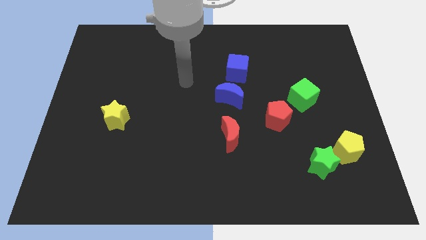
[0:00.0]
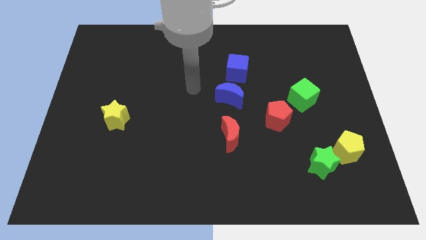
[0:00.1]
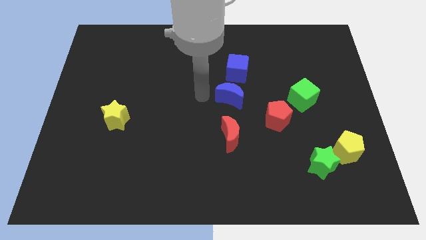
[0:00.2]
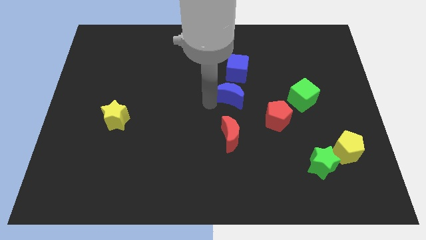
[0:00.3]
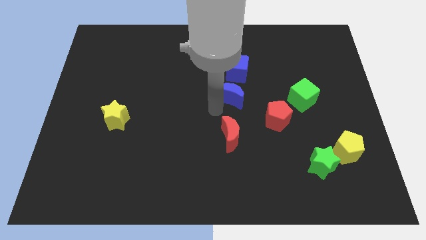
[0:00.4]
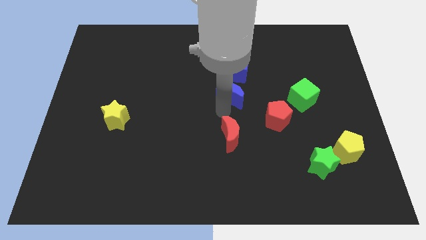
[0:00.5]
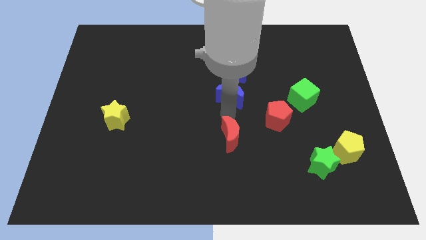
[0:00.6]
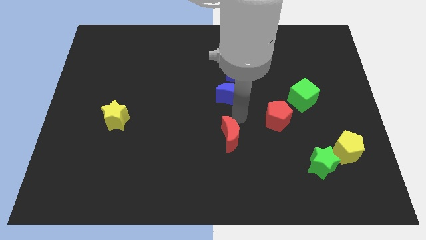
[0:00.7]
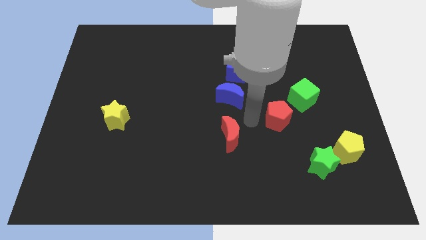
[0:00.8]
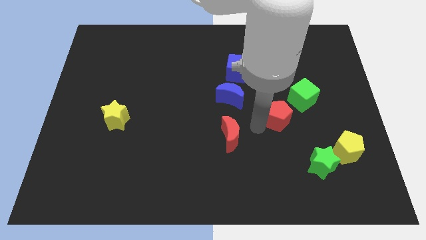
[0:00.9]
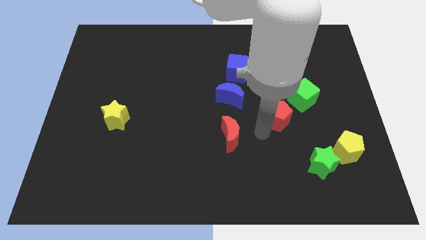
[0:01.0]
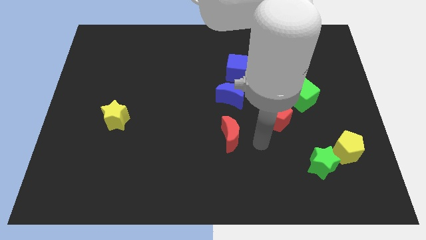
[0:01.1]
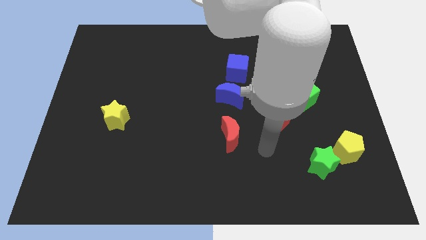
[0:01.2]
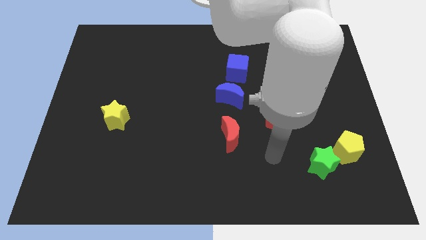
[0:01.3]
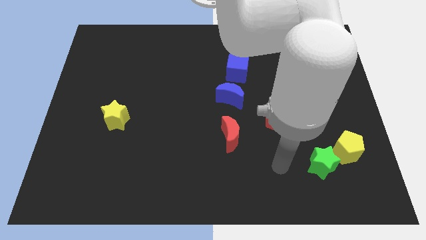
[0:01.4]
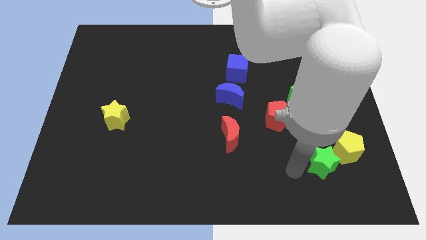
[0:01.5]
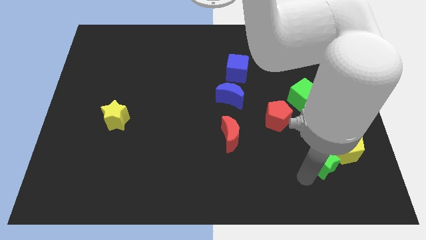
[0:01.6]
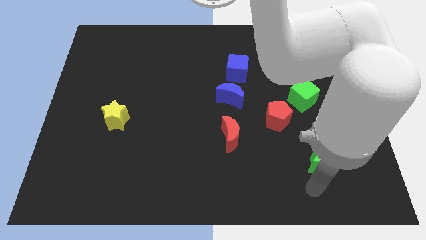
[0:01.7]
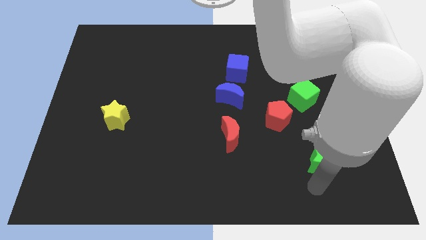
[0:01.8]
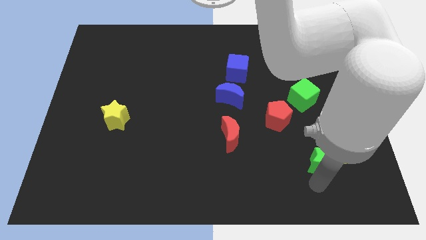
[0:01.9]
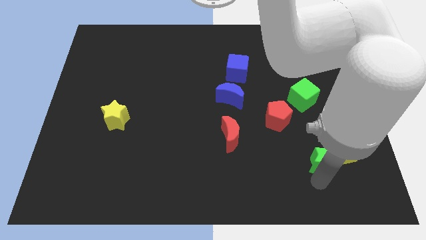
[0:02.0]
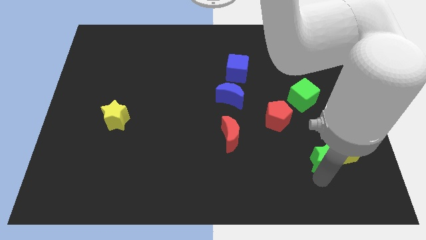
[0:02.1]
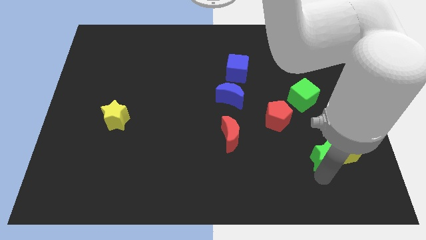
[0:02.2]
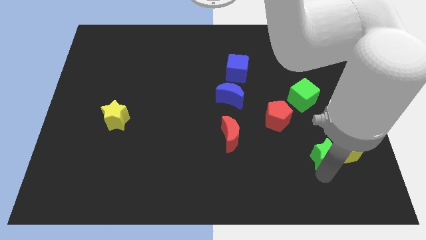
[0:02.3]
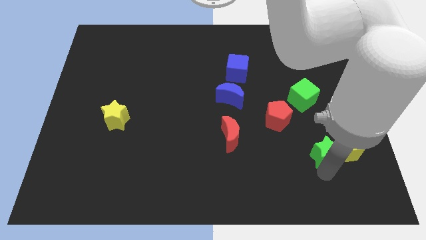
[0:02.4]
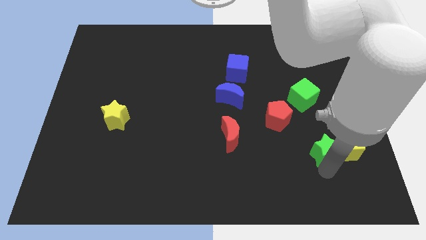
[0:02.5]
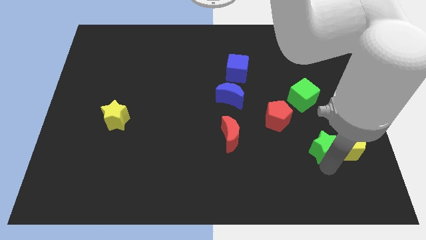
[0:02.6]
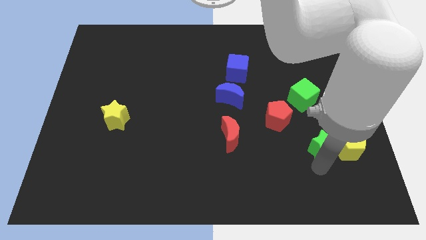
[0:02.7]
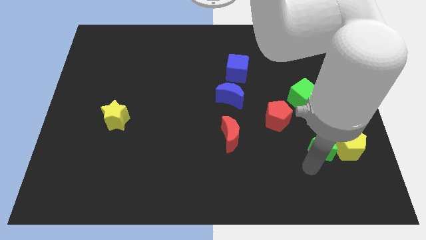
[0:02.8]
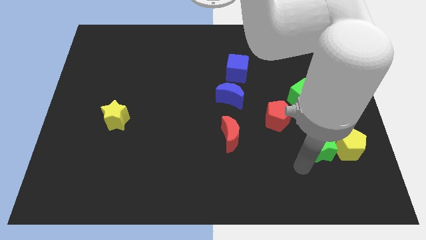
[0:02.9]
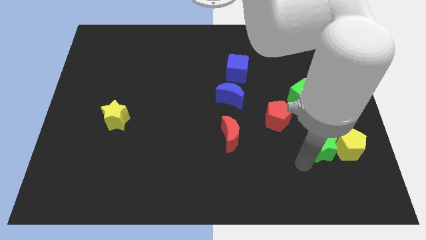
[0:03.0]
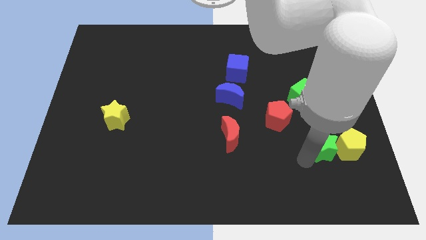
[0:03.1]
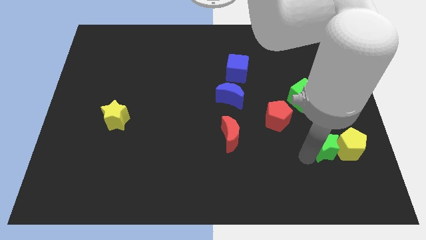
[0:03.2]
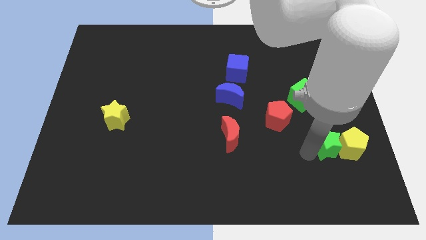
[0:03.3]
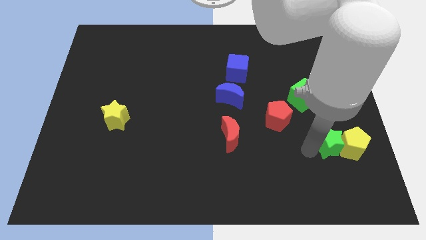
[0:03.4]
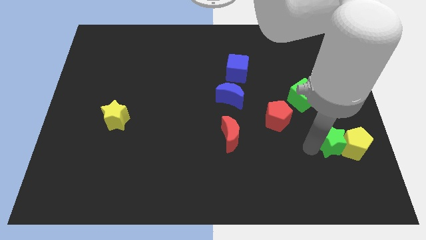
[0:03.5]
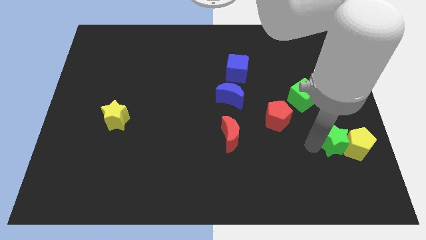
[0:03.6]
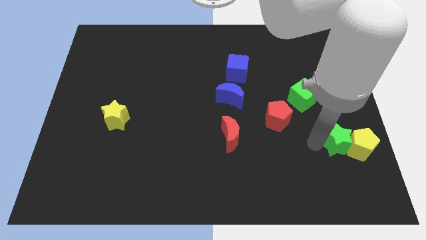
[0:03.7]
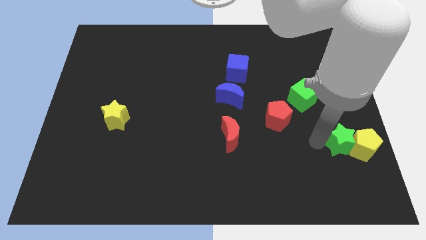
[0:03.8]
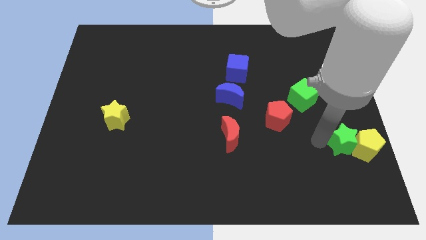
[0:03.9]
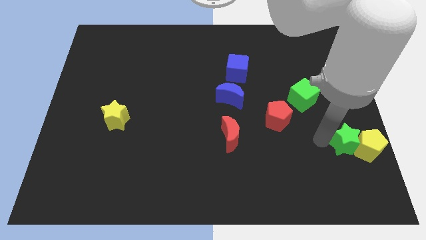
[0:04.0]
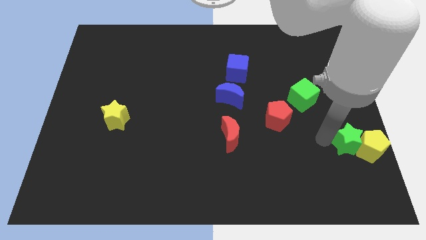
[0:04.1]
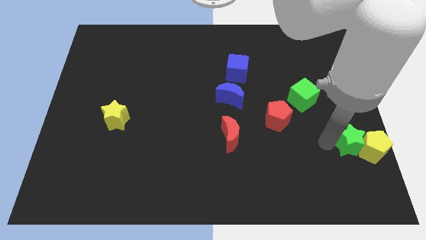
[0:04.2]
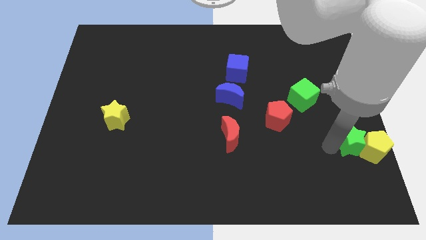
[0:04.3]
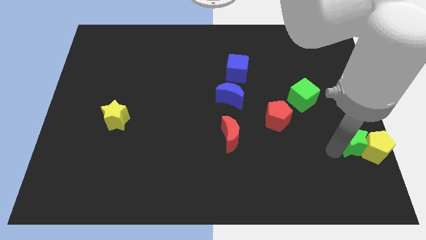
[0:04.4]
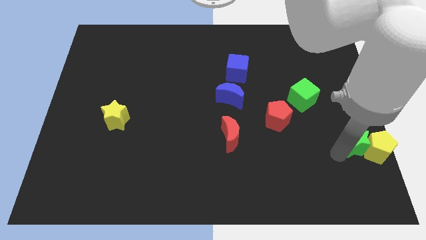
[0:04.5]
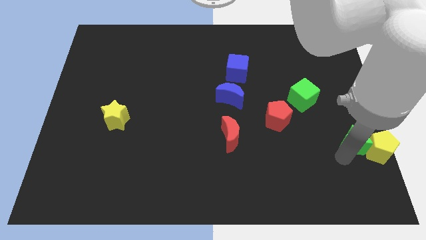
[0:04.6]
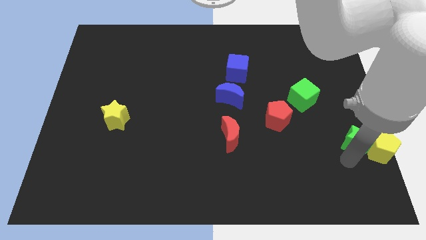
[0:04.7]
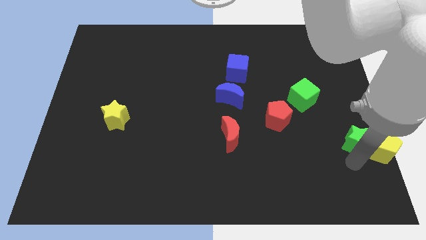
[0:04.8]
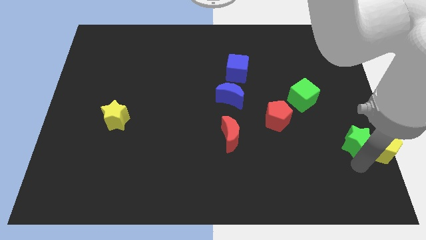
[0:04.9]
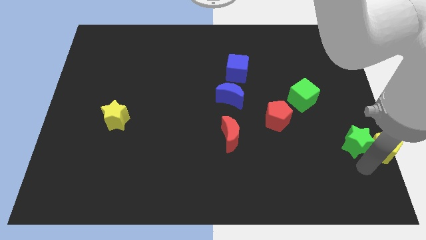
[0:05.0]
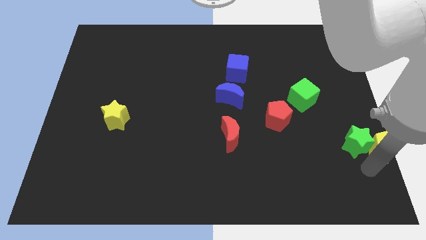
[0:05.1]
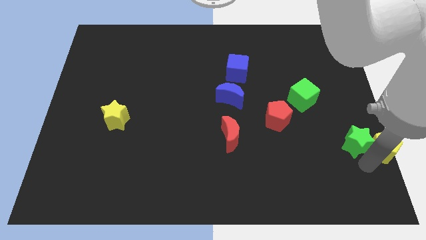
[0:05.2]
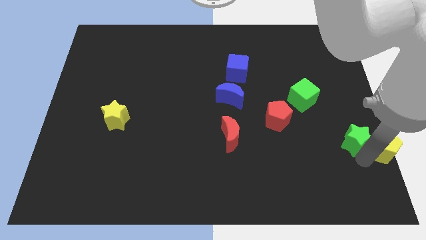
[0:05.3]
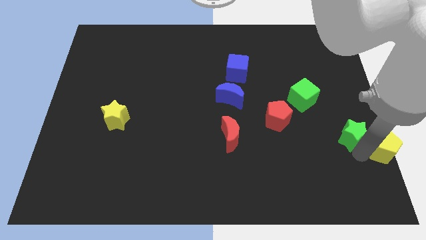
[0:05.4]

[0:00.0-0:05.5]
push the green star to the right side of the board
